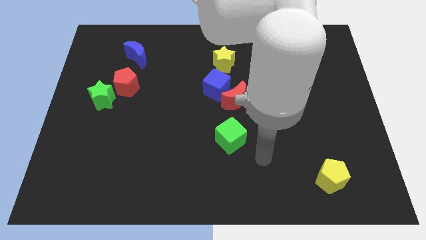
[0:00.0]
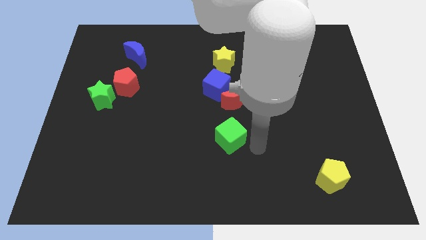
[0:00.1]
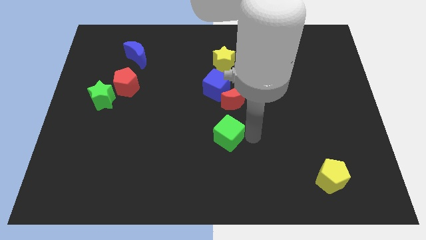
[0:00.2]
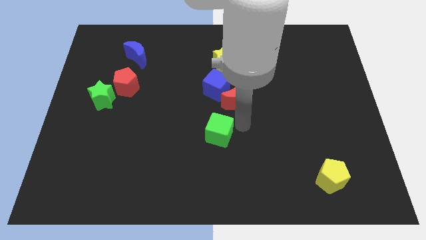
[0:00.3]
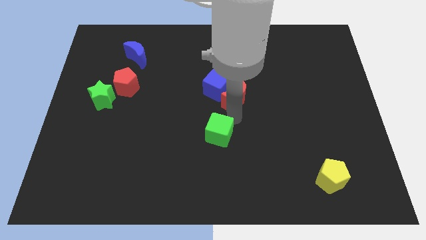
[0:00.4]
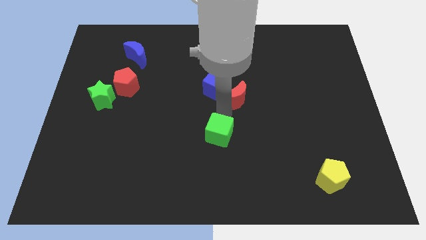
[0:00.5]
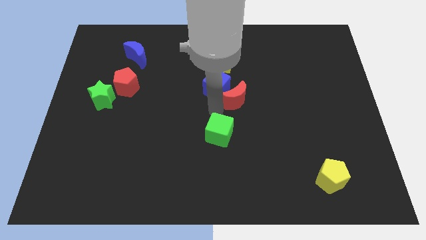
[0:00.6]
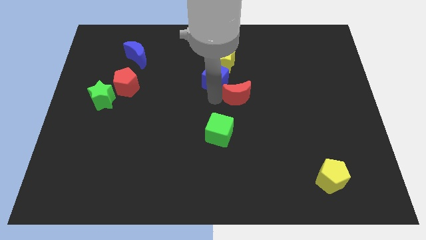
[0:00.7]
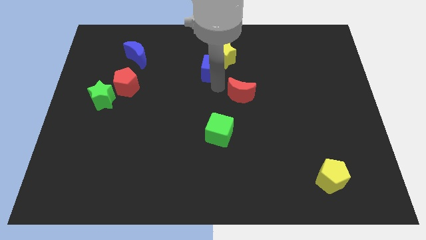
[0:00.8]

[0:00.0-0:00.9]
pull the red moon apart from the blue cube

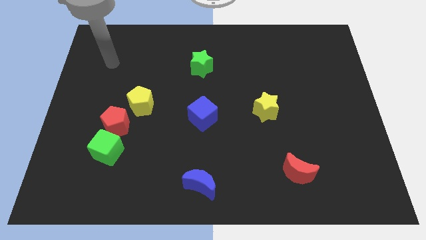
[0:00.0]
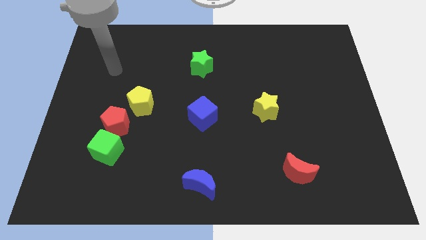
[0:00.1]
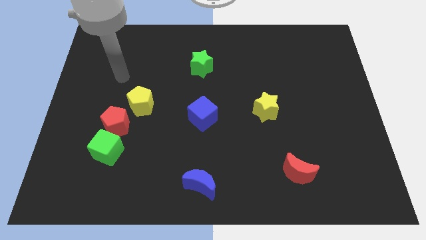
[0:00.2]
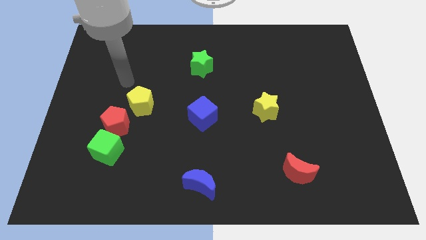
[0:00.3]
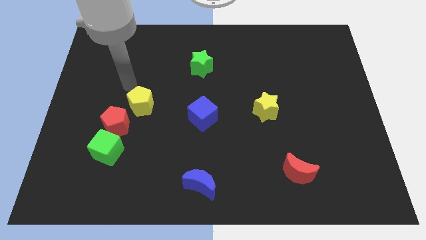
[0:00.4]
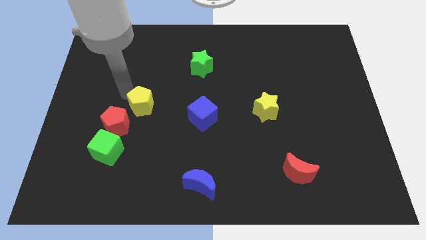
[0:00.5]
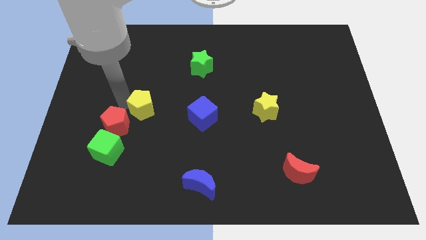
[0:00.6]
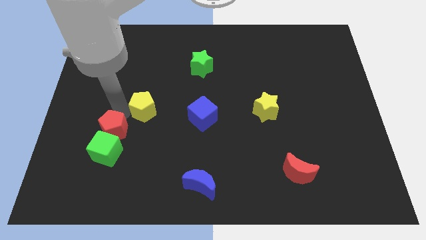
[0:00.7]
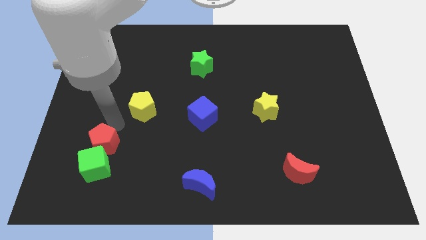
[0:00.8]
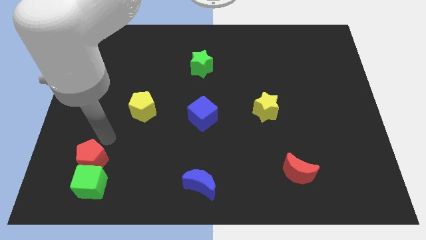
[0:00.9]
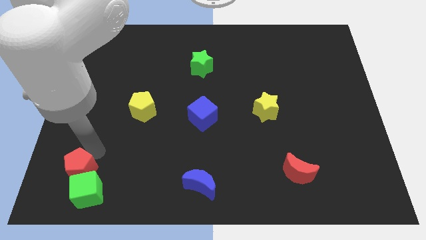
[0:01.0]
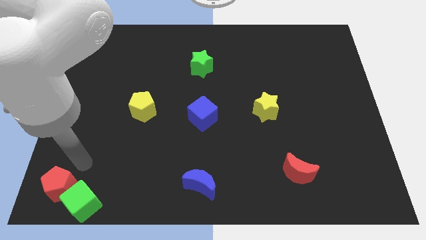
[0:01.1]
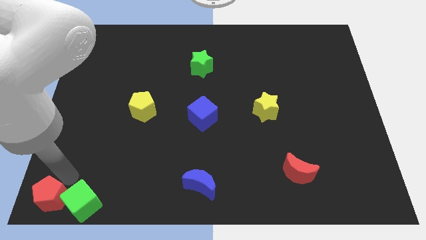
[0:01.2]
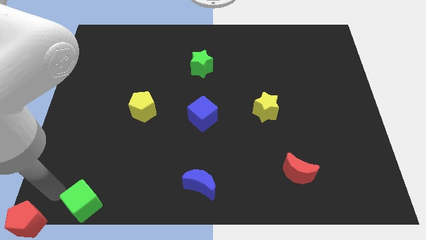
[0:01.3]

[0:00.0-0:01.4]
pull the green cube apart from the red pentagon

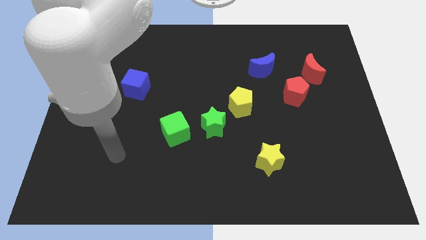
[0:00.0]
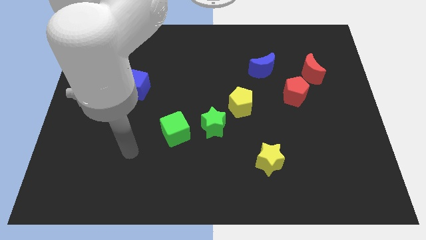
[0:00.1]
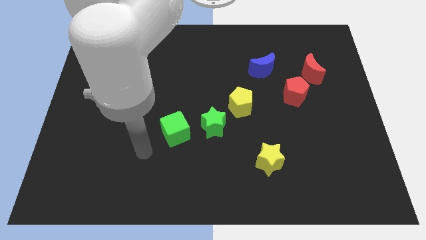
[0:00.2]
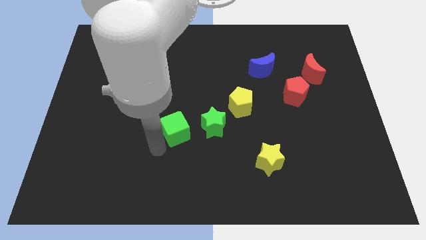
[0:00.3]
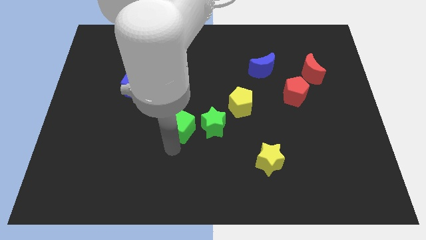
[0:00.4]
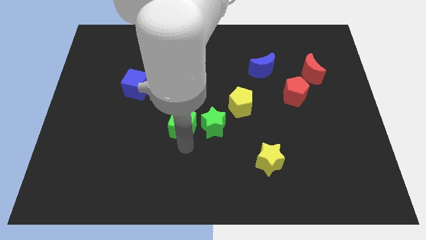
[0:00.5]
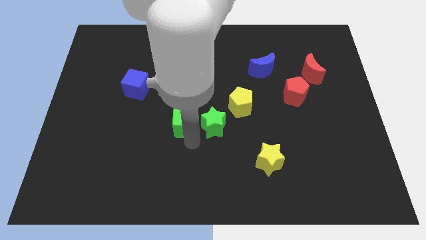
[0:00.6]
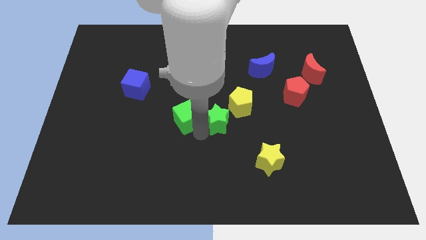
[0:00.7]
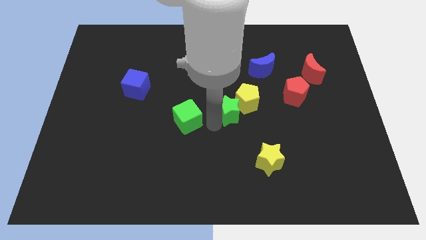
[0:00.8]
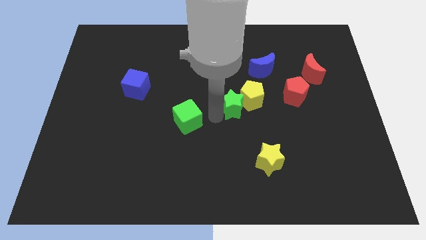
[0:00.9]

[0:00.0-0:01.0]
separate the green cube from the green star

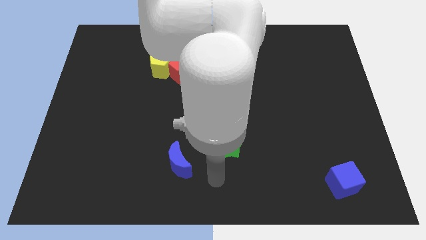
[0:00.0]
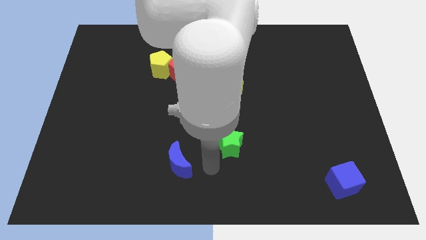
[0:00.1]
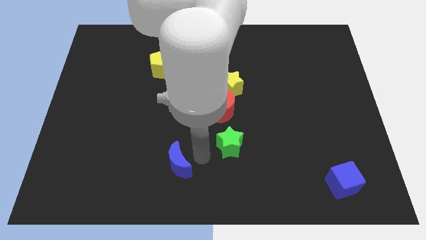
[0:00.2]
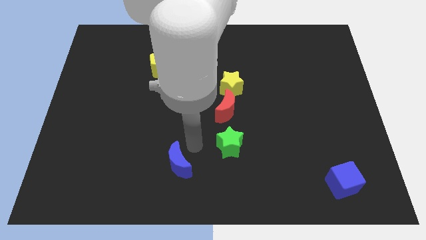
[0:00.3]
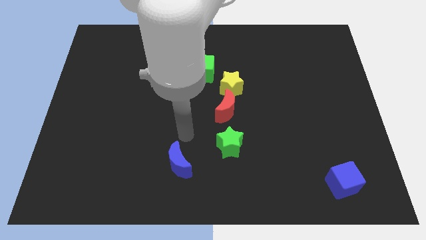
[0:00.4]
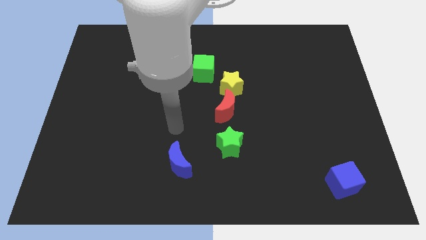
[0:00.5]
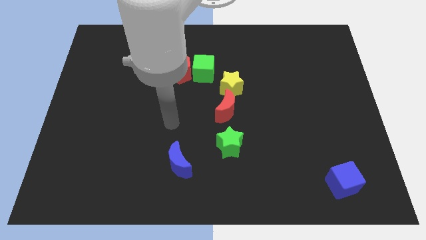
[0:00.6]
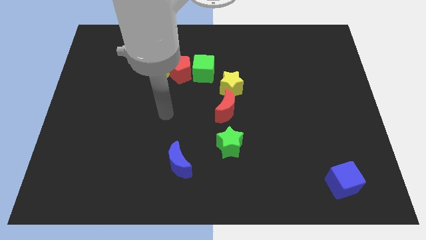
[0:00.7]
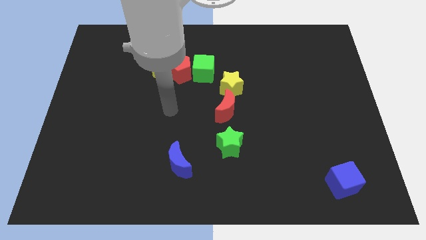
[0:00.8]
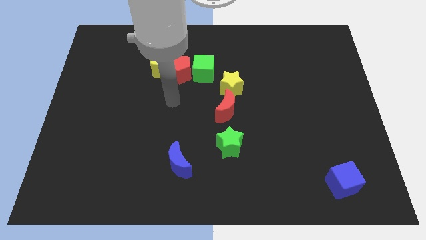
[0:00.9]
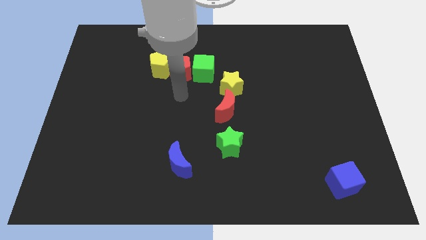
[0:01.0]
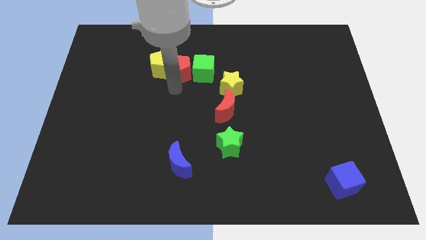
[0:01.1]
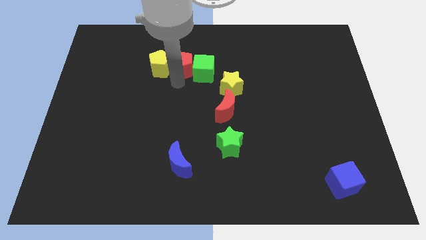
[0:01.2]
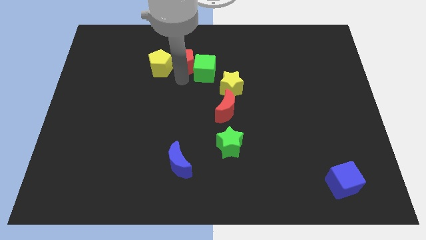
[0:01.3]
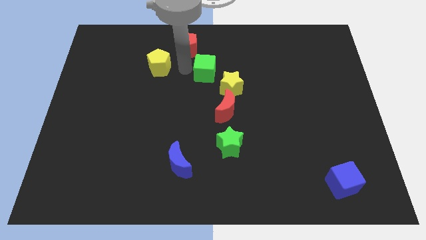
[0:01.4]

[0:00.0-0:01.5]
pull the yellow pentagon apart from the red pentagon

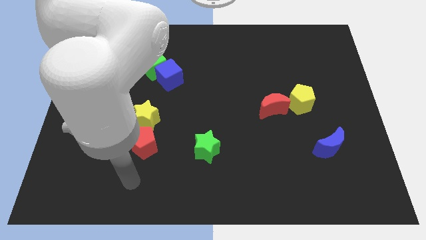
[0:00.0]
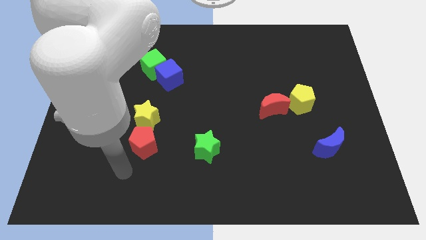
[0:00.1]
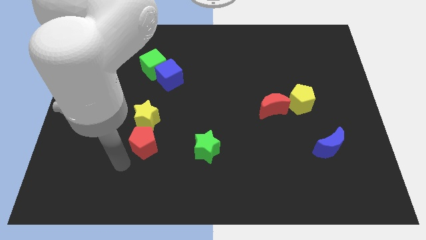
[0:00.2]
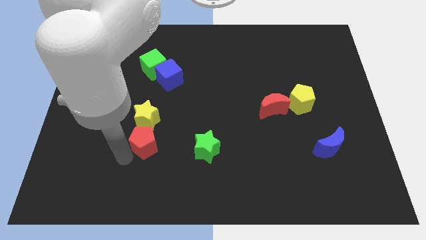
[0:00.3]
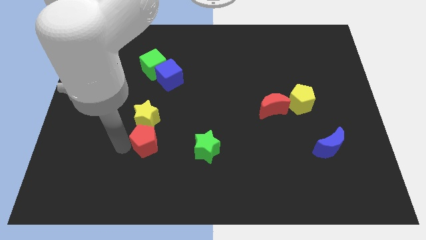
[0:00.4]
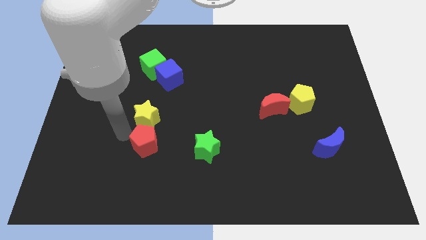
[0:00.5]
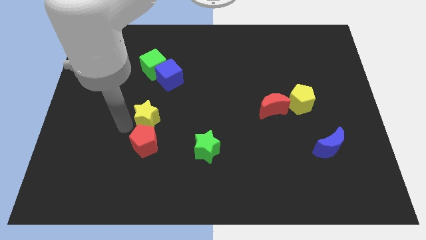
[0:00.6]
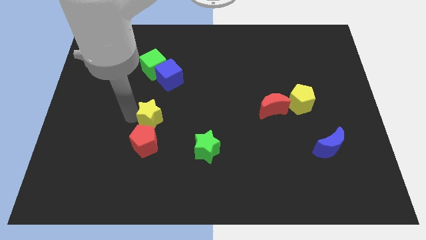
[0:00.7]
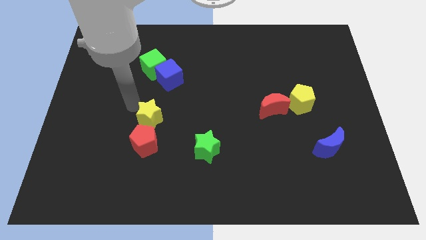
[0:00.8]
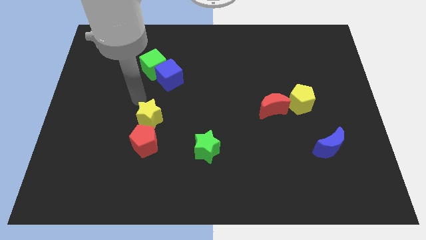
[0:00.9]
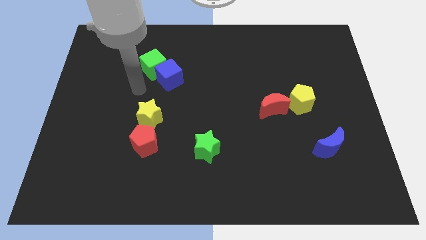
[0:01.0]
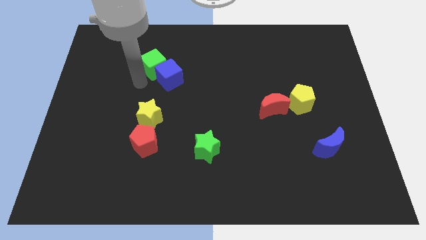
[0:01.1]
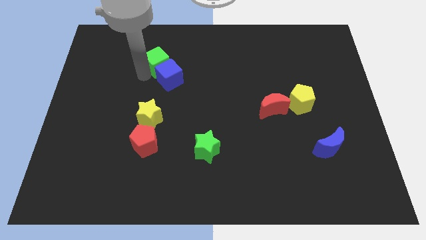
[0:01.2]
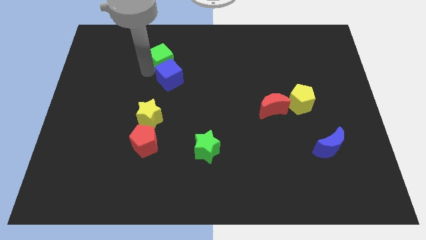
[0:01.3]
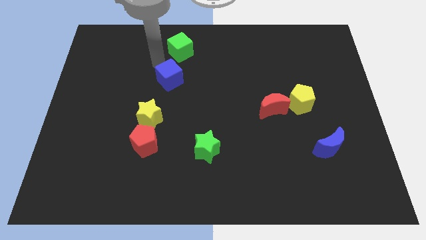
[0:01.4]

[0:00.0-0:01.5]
pull the blue cube apart from the green cube

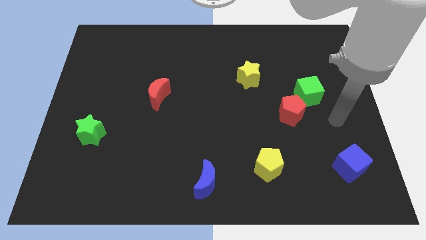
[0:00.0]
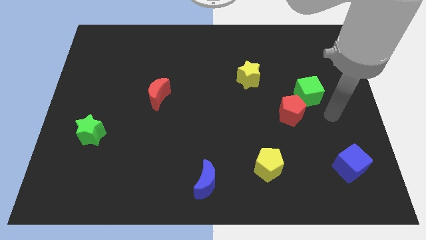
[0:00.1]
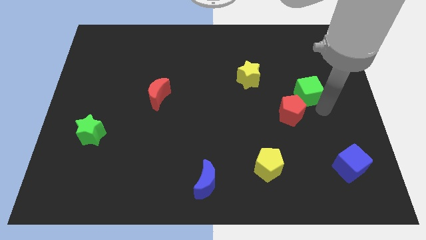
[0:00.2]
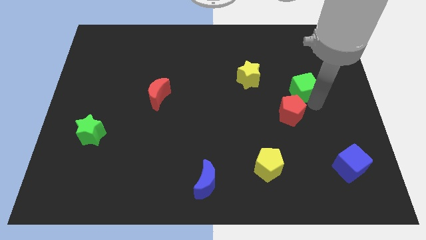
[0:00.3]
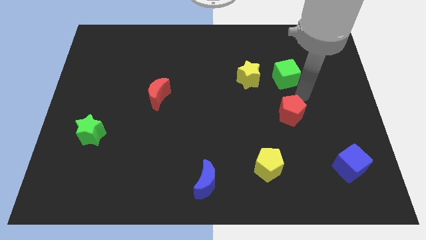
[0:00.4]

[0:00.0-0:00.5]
move the red pentagon away from the green cube

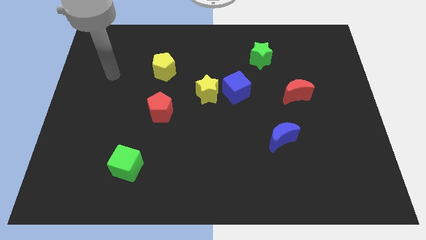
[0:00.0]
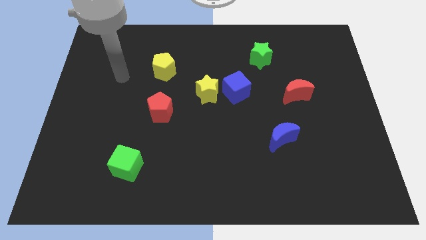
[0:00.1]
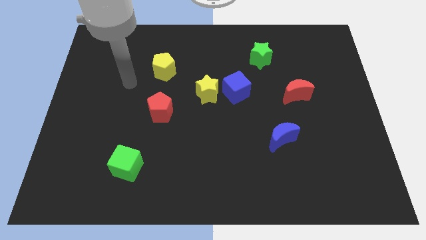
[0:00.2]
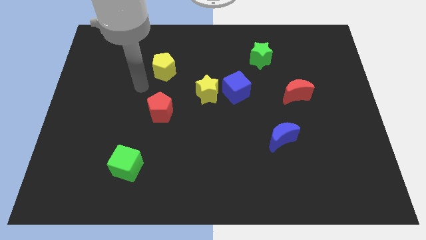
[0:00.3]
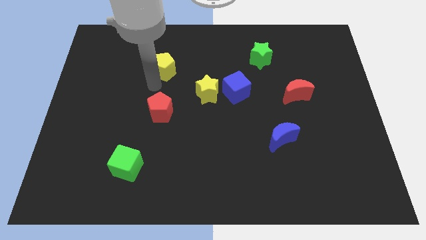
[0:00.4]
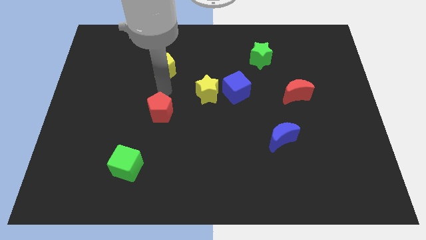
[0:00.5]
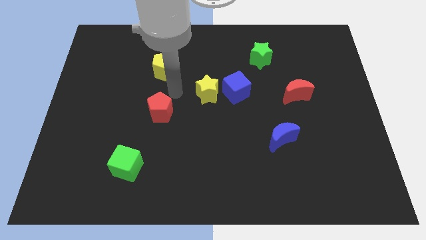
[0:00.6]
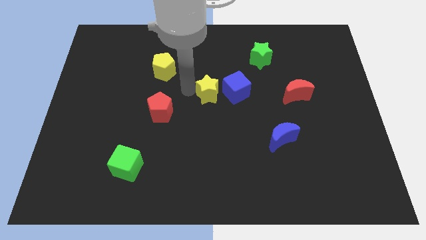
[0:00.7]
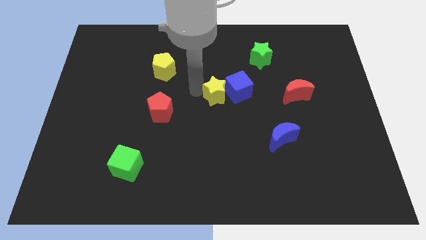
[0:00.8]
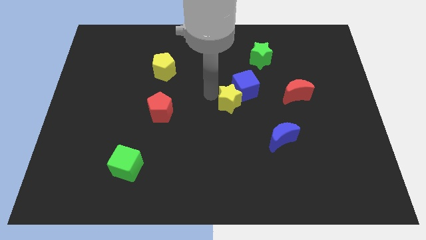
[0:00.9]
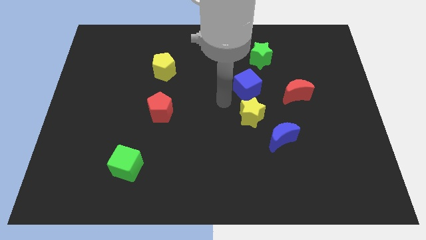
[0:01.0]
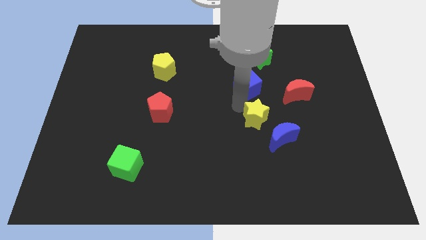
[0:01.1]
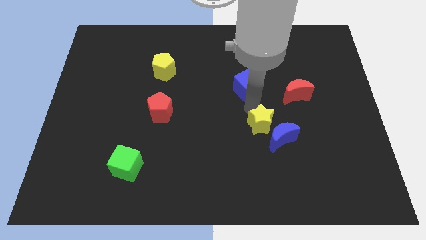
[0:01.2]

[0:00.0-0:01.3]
move the blue cube away from the yellow star

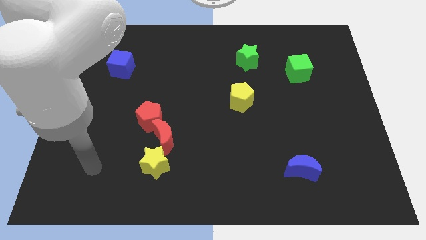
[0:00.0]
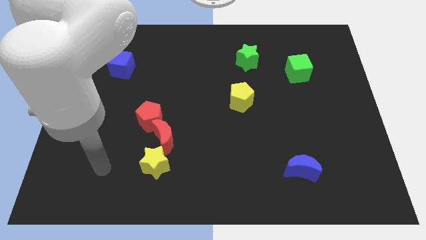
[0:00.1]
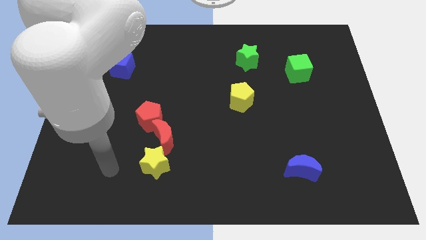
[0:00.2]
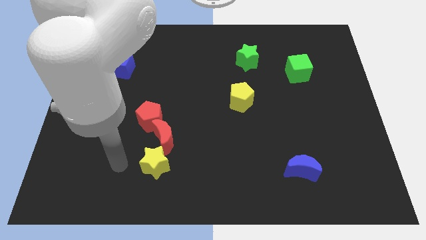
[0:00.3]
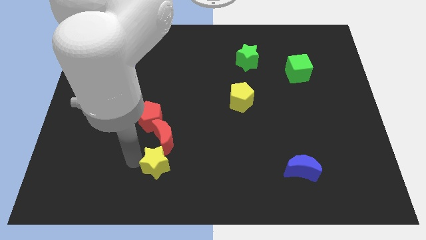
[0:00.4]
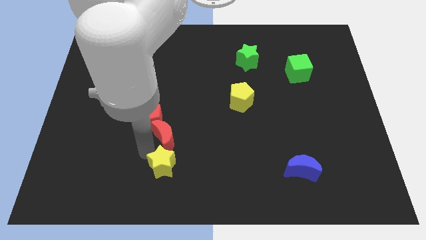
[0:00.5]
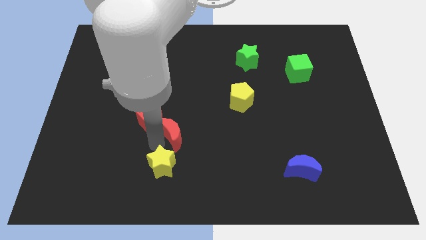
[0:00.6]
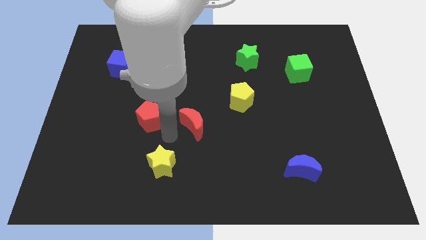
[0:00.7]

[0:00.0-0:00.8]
pull the red pentagon apart from the red moon

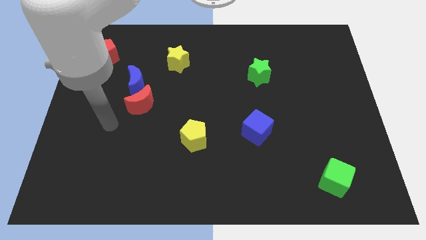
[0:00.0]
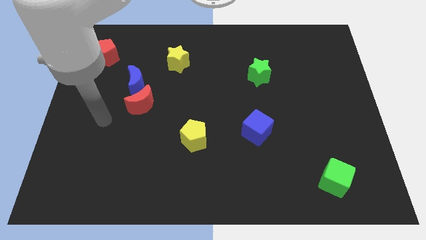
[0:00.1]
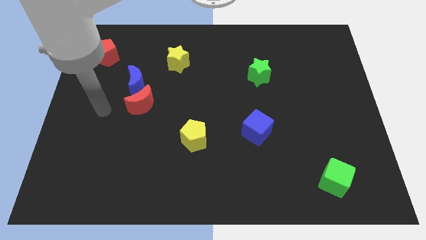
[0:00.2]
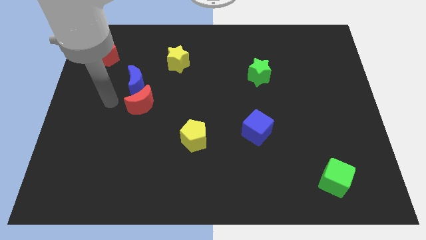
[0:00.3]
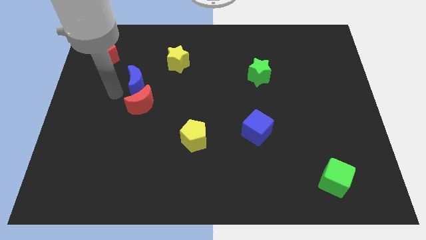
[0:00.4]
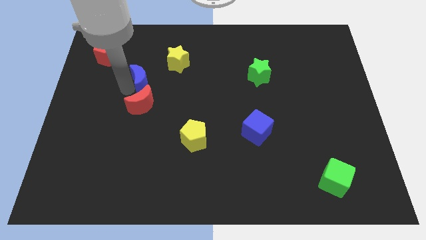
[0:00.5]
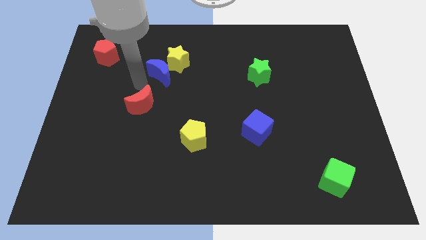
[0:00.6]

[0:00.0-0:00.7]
pull the red moon apart from the blue moon
